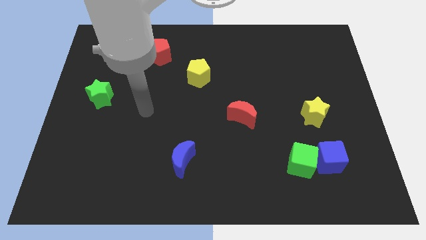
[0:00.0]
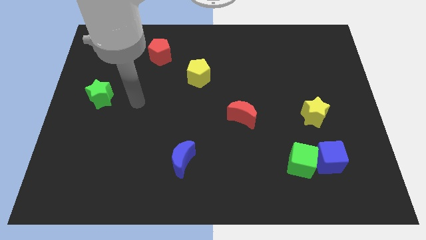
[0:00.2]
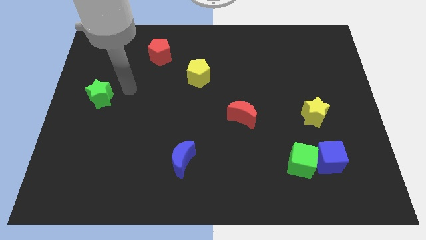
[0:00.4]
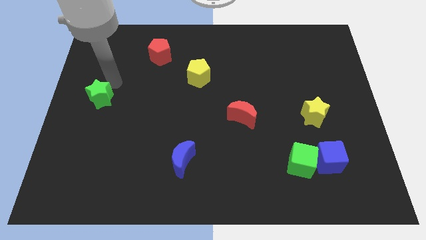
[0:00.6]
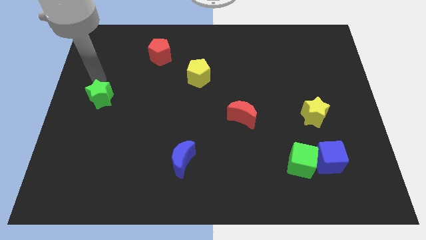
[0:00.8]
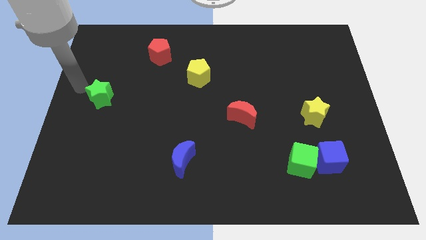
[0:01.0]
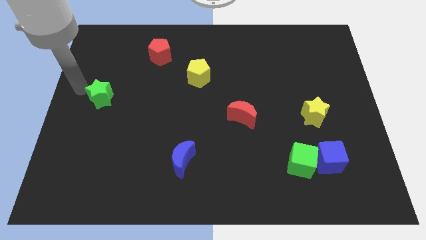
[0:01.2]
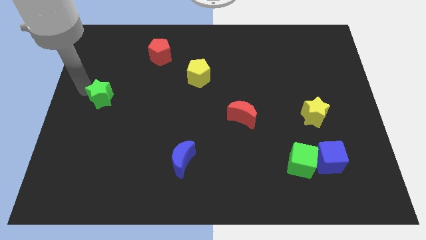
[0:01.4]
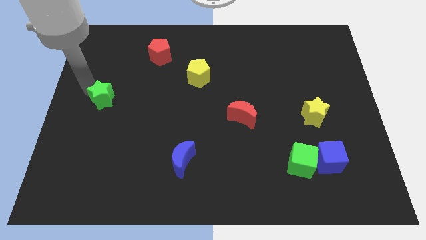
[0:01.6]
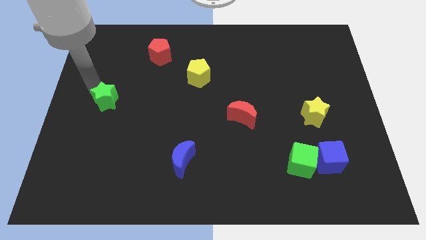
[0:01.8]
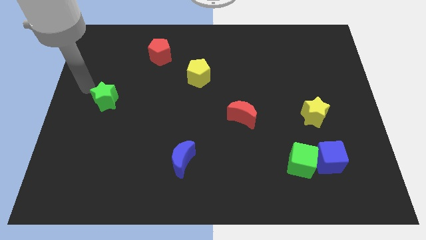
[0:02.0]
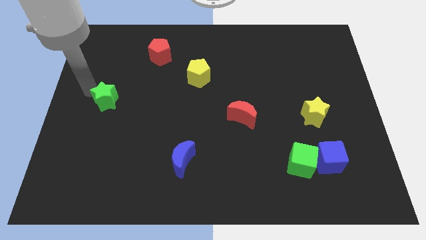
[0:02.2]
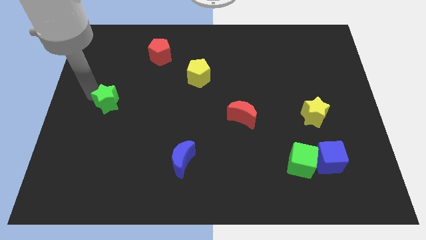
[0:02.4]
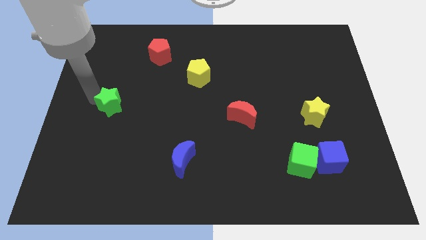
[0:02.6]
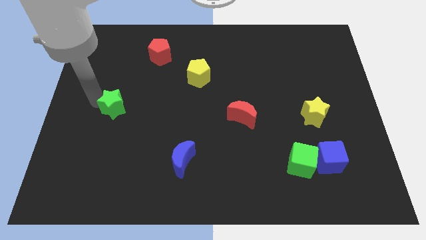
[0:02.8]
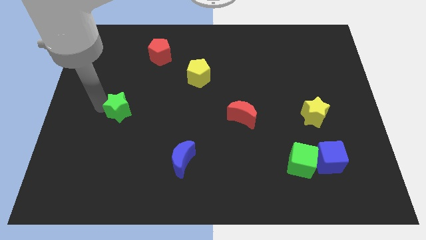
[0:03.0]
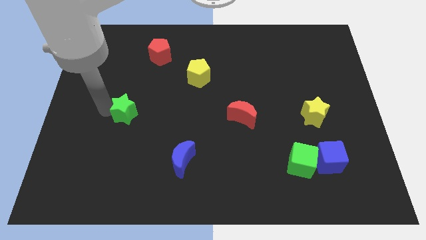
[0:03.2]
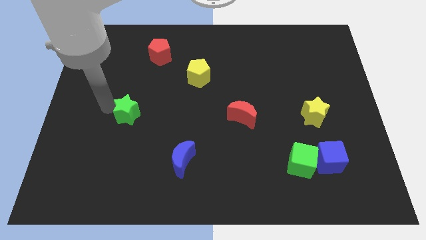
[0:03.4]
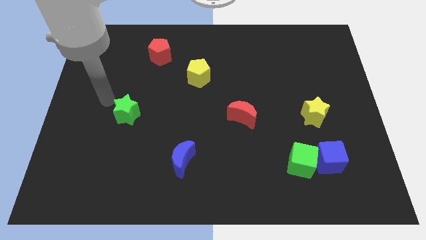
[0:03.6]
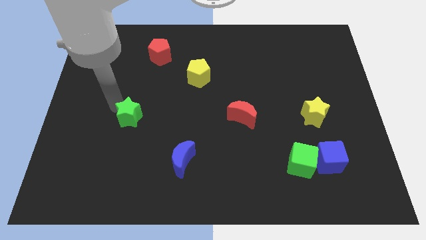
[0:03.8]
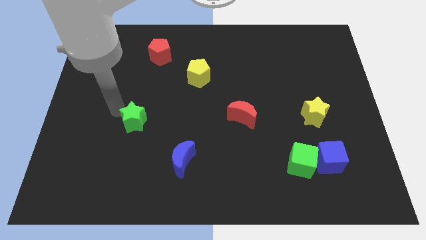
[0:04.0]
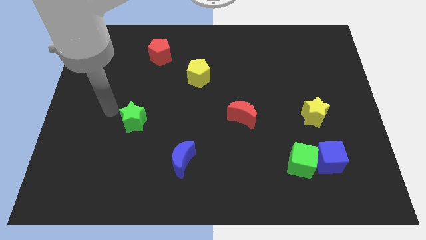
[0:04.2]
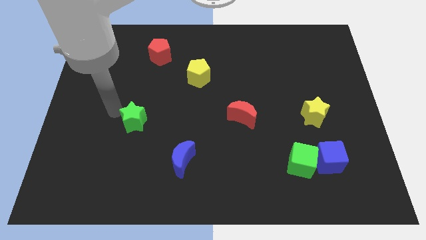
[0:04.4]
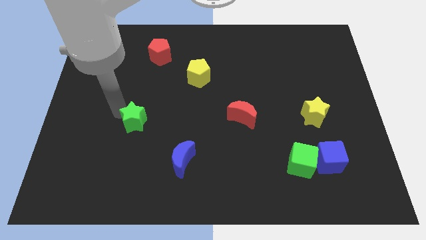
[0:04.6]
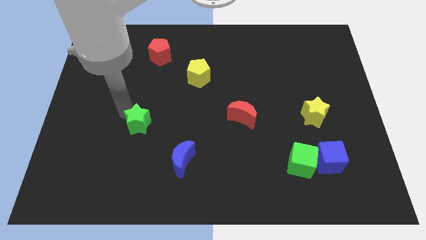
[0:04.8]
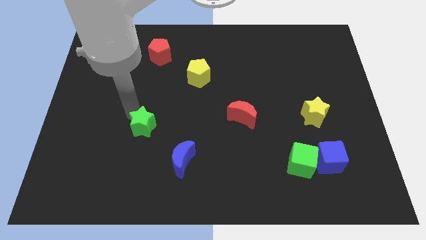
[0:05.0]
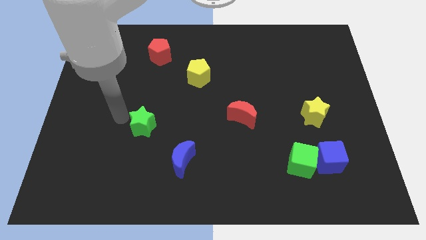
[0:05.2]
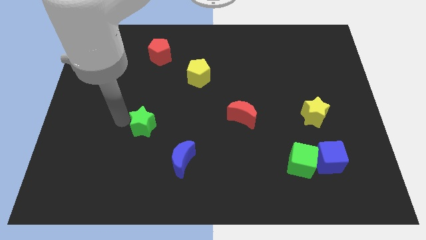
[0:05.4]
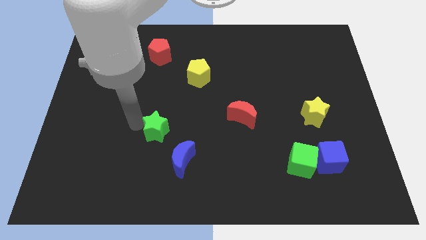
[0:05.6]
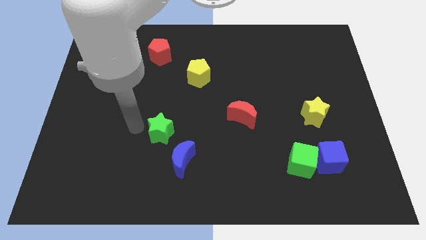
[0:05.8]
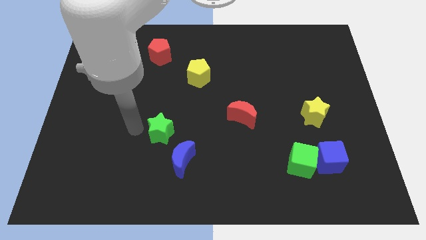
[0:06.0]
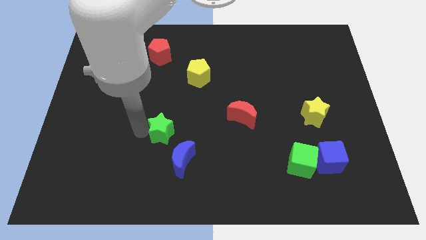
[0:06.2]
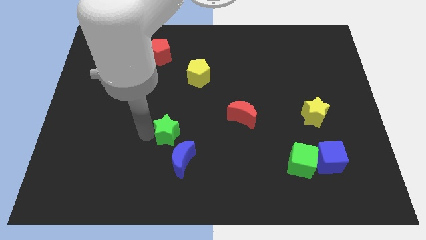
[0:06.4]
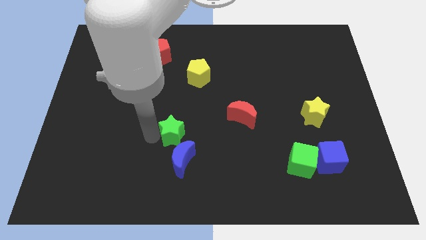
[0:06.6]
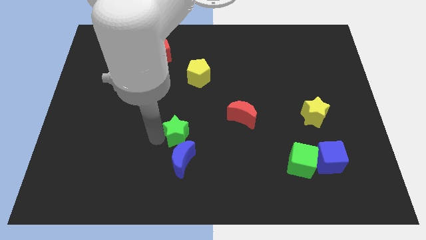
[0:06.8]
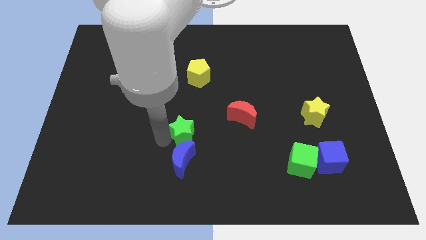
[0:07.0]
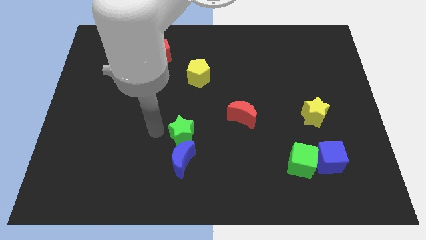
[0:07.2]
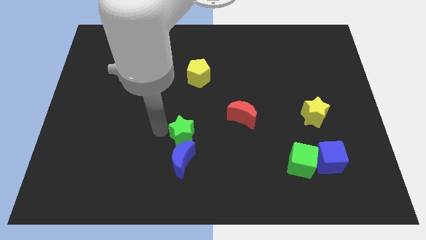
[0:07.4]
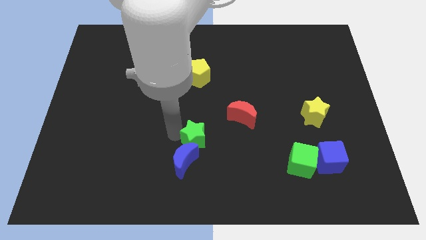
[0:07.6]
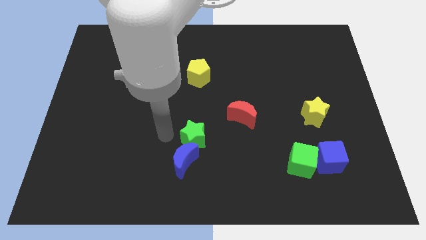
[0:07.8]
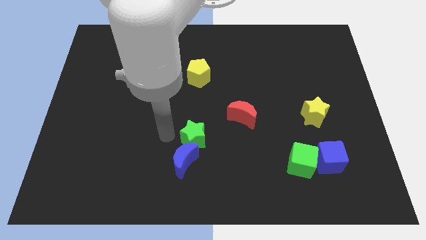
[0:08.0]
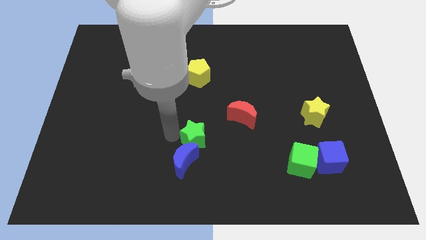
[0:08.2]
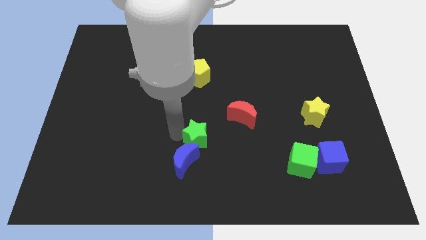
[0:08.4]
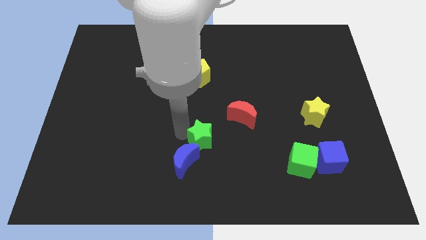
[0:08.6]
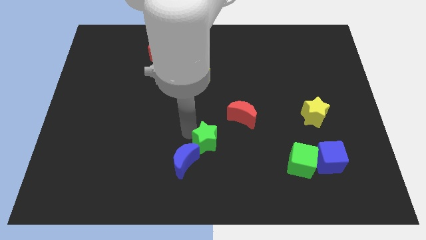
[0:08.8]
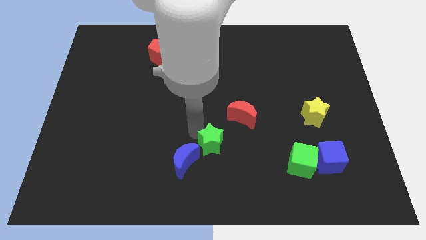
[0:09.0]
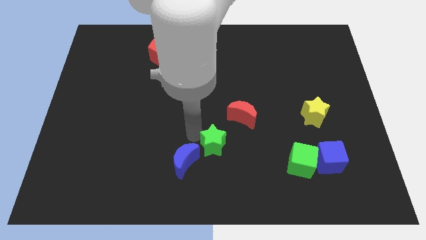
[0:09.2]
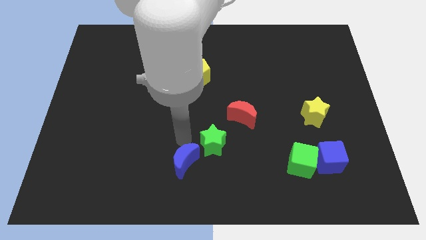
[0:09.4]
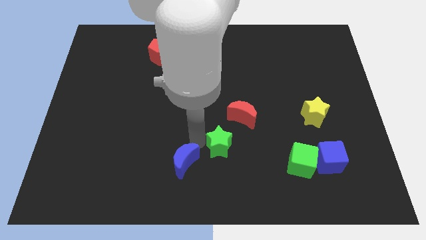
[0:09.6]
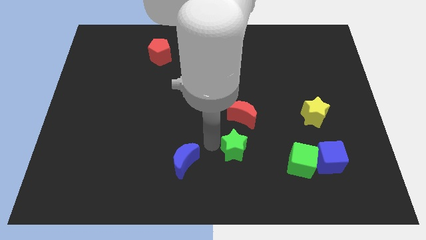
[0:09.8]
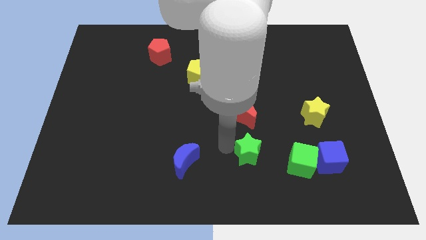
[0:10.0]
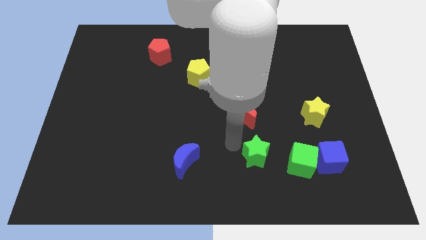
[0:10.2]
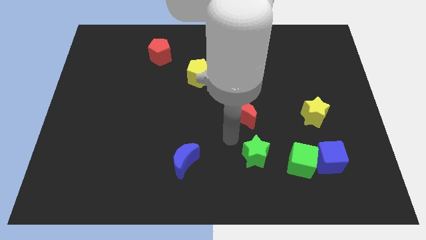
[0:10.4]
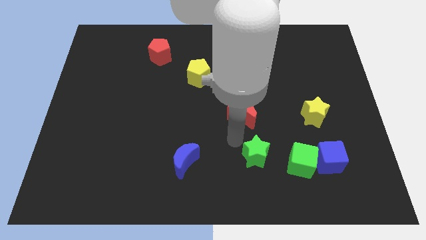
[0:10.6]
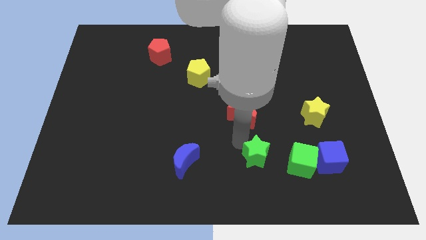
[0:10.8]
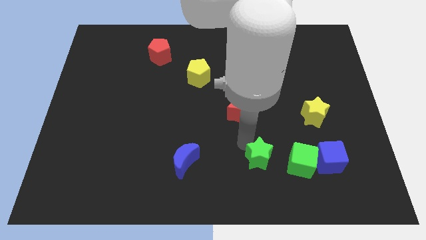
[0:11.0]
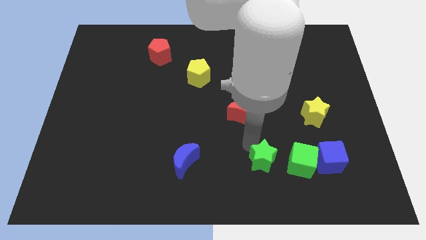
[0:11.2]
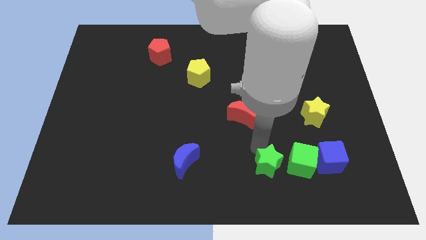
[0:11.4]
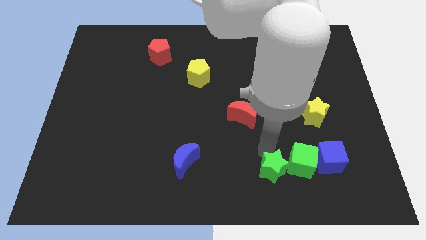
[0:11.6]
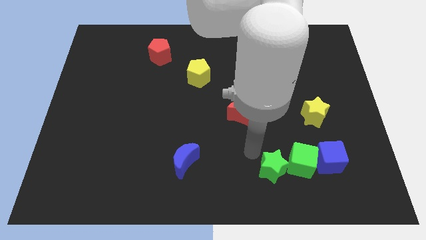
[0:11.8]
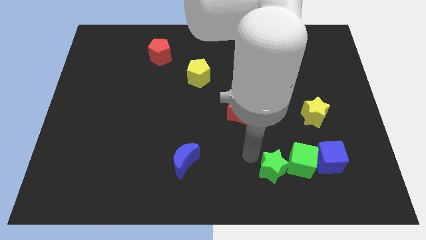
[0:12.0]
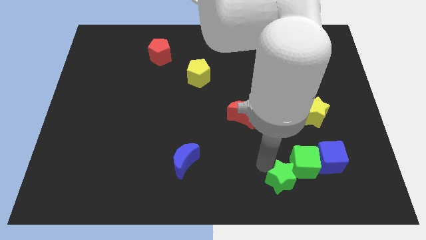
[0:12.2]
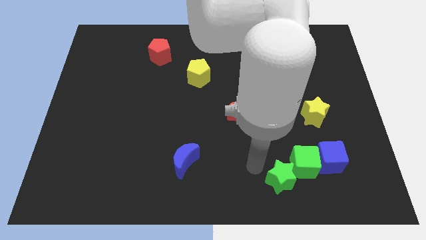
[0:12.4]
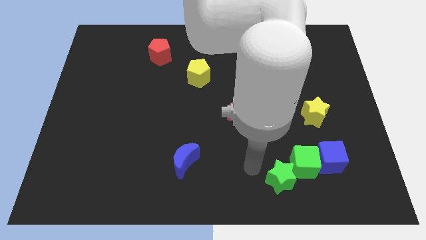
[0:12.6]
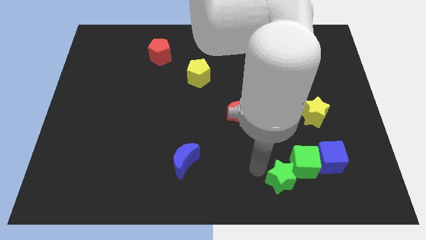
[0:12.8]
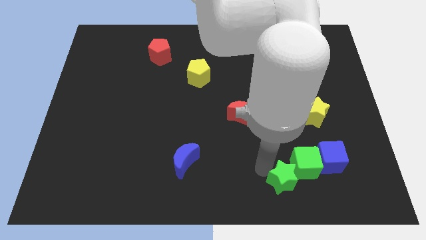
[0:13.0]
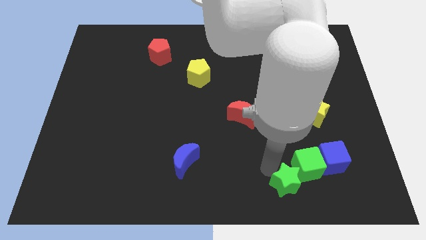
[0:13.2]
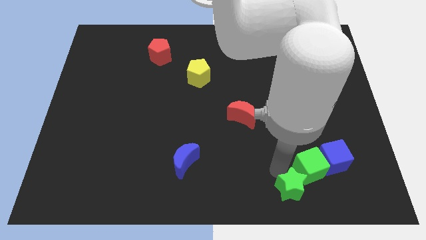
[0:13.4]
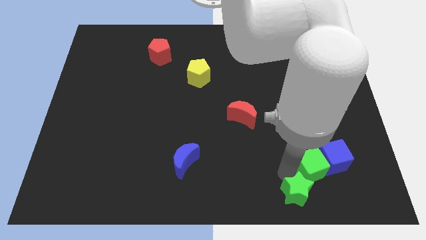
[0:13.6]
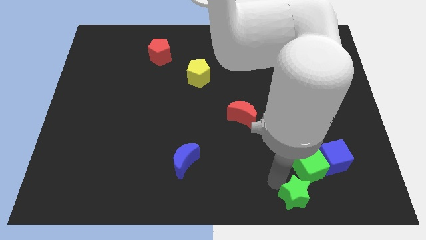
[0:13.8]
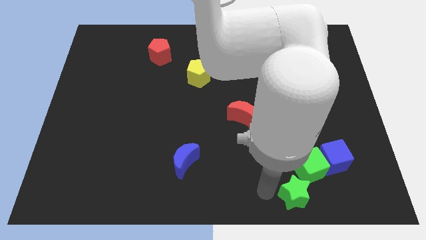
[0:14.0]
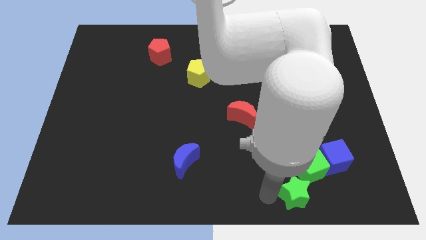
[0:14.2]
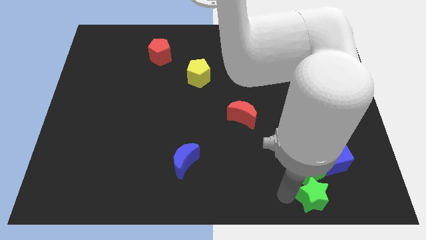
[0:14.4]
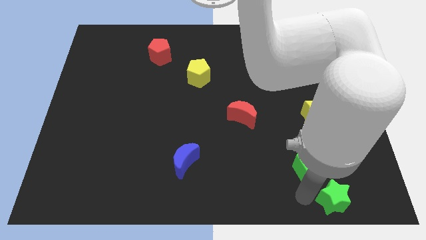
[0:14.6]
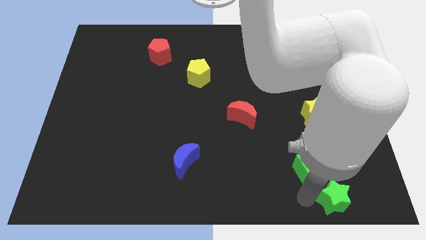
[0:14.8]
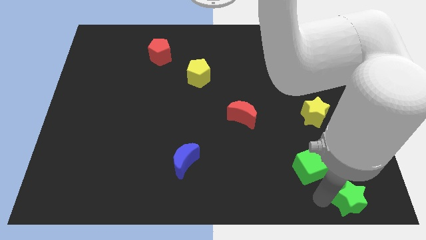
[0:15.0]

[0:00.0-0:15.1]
push the green star to the lower right corner
